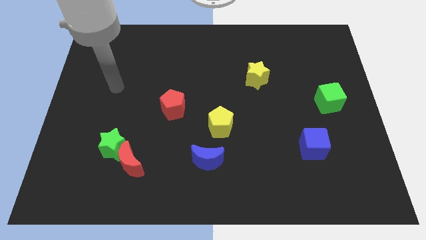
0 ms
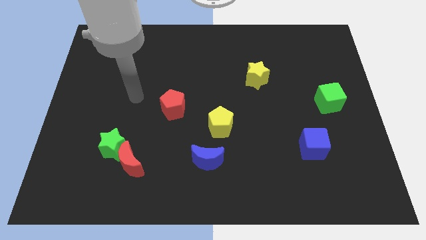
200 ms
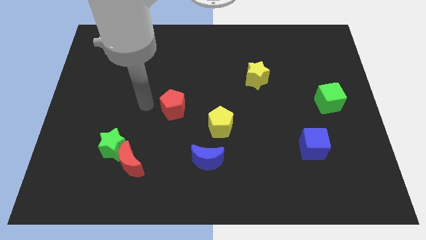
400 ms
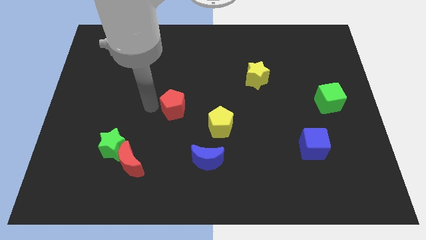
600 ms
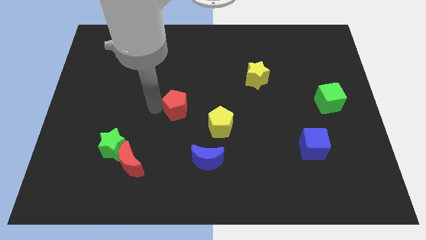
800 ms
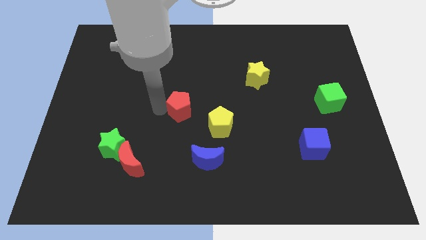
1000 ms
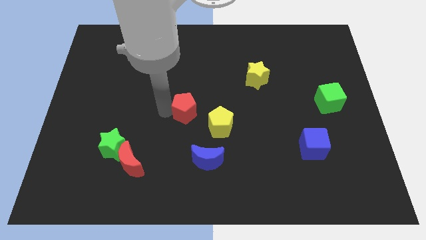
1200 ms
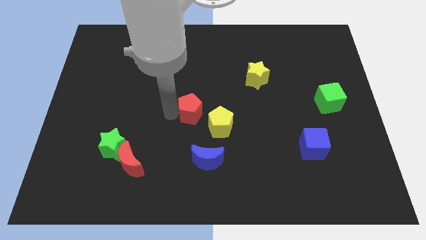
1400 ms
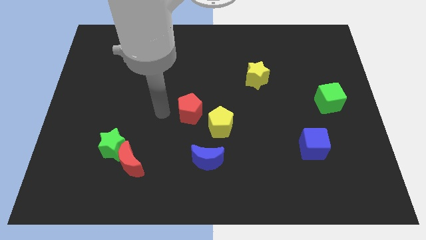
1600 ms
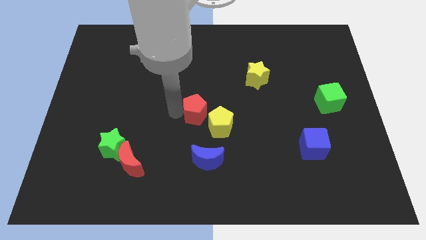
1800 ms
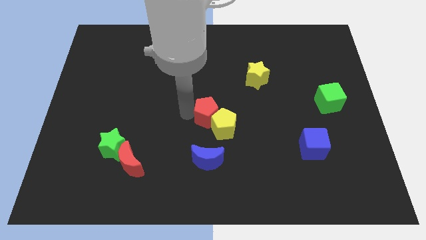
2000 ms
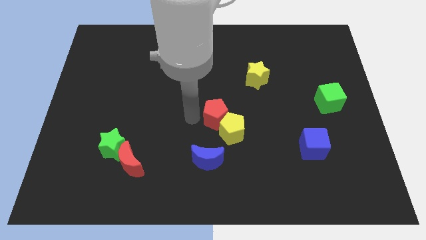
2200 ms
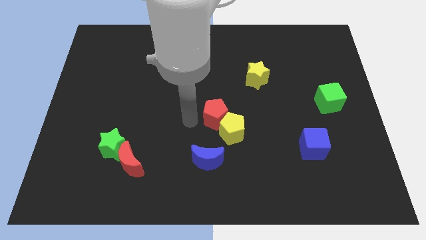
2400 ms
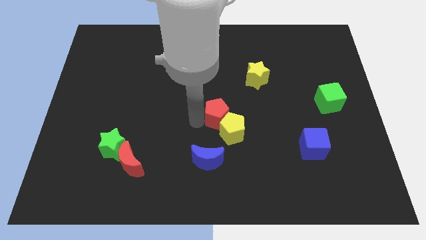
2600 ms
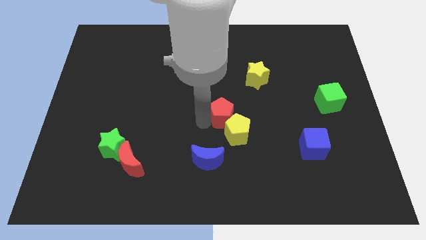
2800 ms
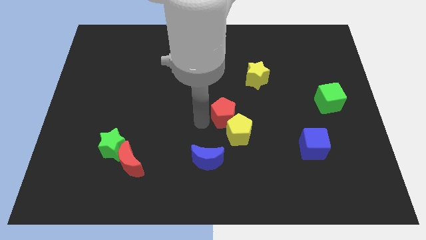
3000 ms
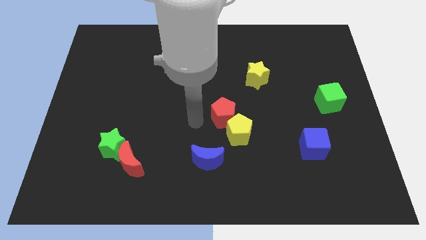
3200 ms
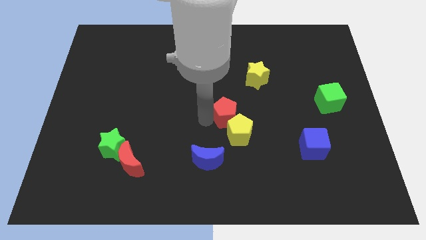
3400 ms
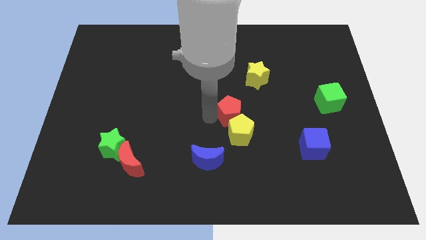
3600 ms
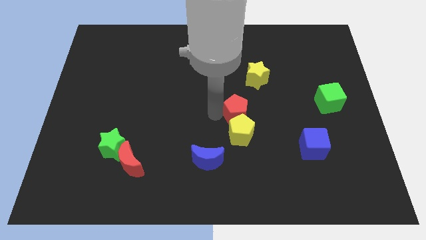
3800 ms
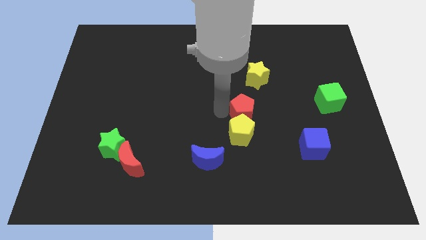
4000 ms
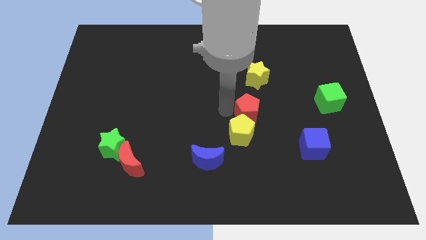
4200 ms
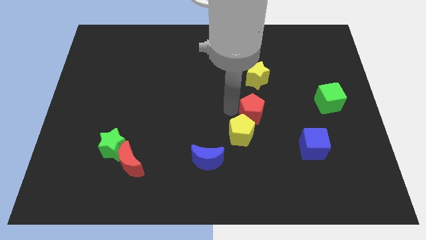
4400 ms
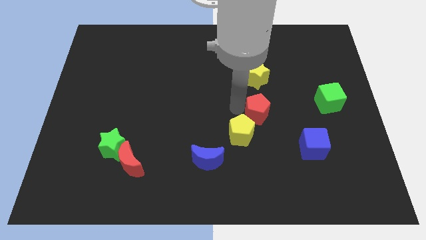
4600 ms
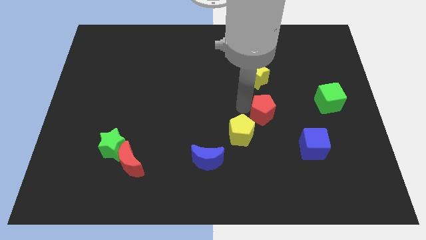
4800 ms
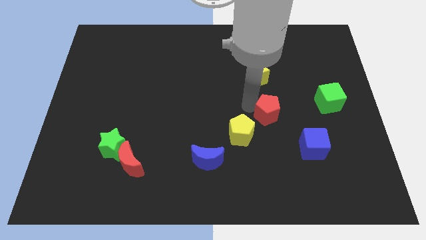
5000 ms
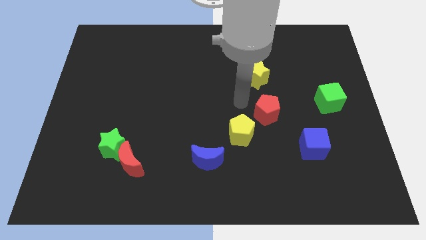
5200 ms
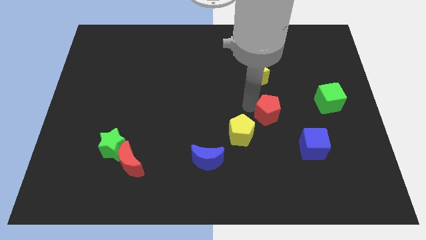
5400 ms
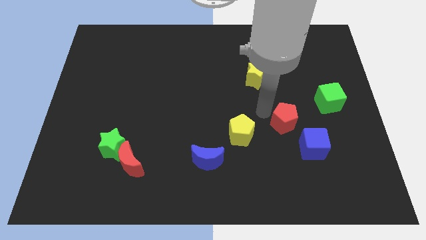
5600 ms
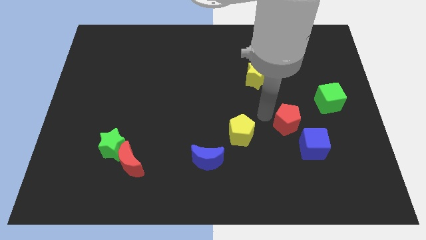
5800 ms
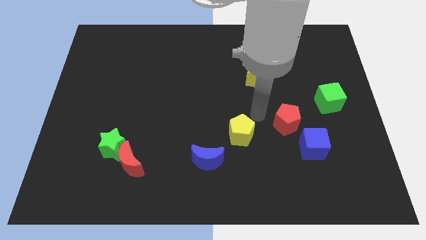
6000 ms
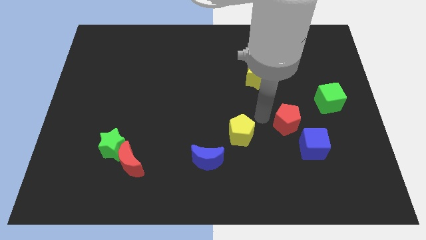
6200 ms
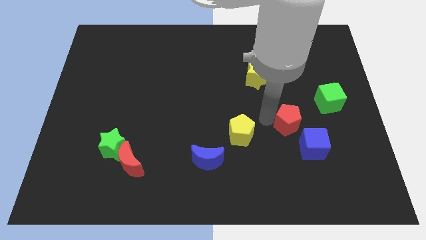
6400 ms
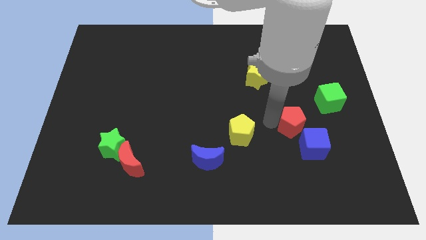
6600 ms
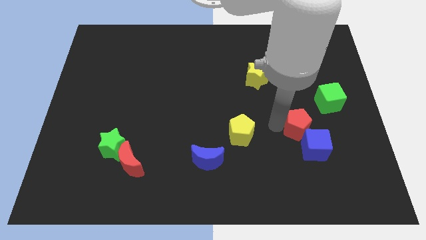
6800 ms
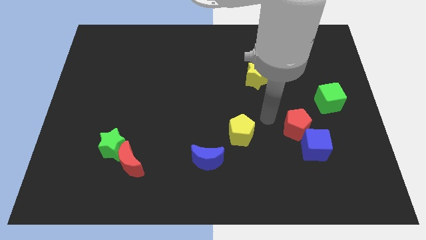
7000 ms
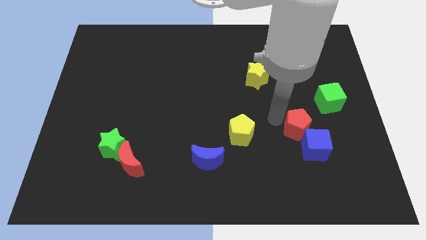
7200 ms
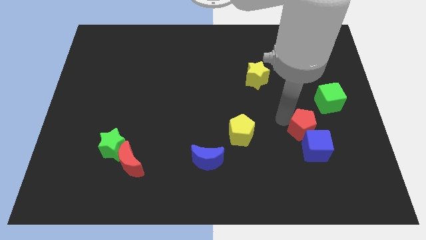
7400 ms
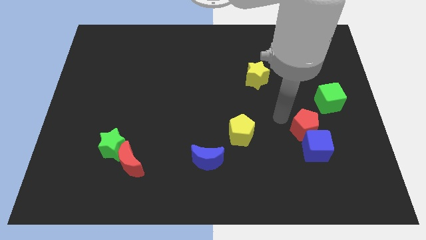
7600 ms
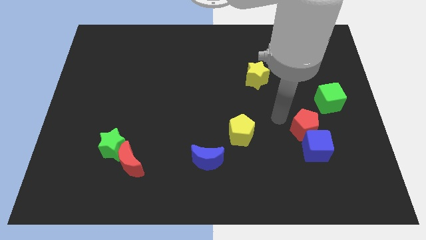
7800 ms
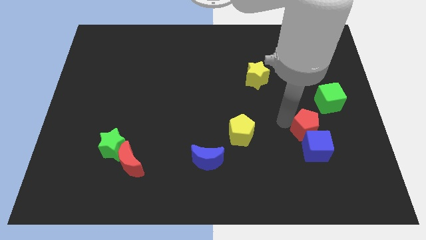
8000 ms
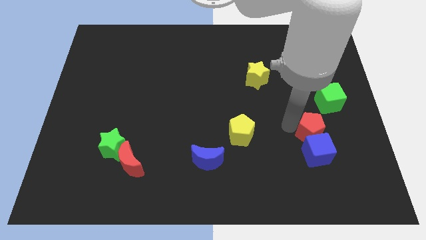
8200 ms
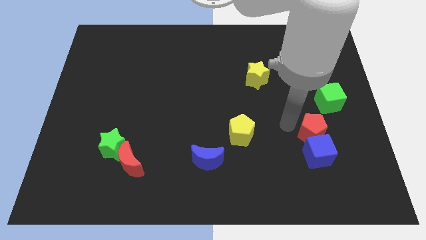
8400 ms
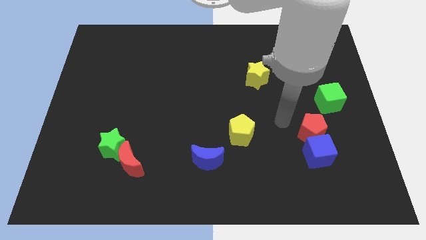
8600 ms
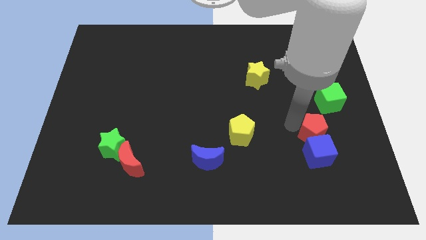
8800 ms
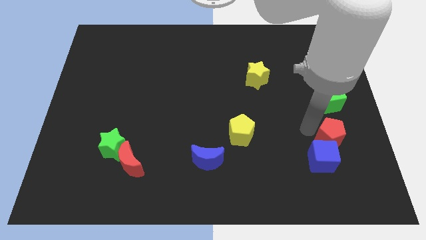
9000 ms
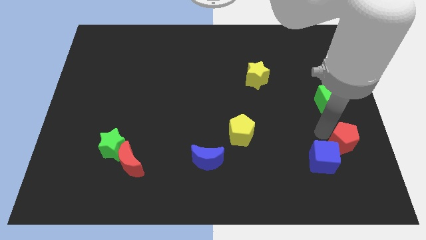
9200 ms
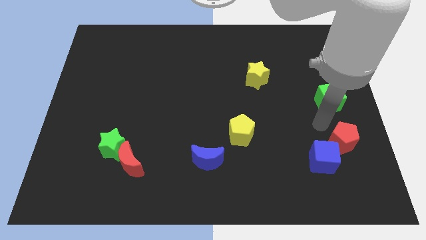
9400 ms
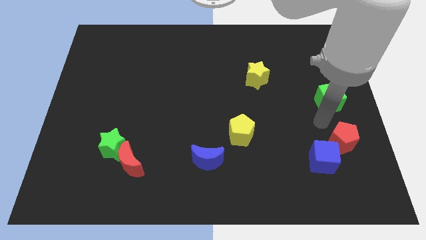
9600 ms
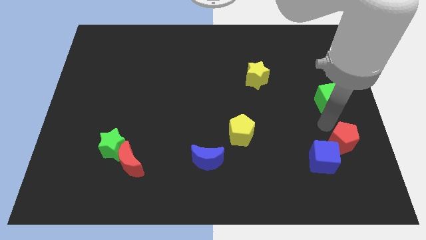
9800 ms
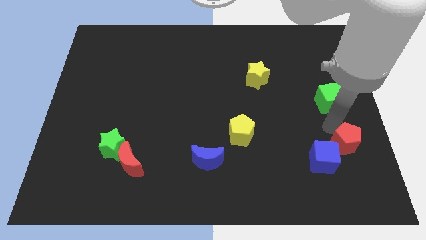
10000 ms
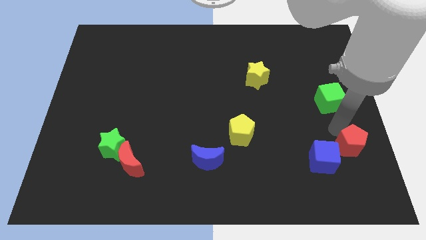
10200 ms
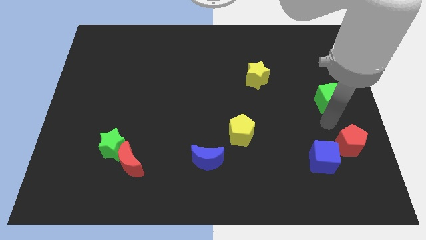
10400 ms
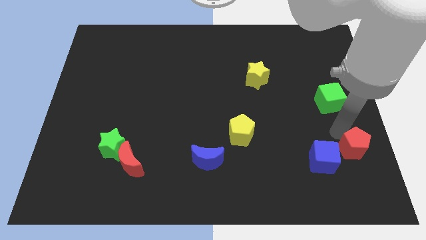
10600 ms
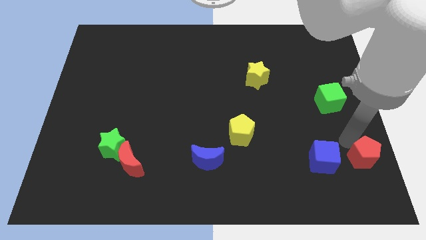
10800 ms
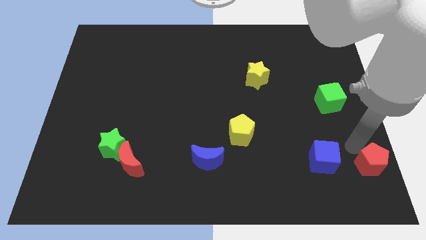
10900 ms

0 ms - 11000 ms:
slide the red pentagon to the bottom right

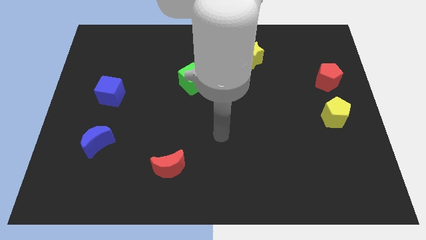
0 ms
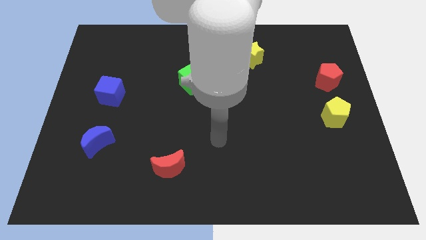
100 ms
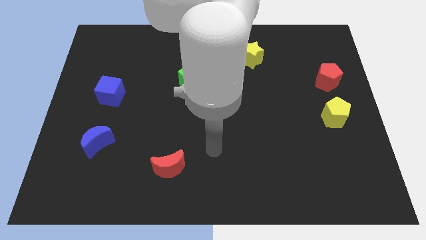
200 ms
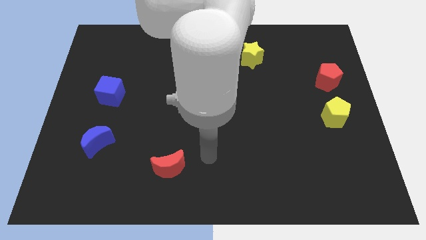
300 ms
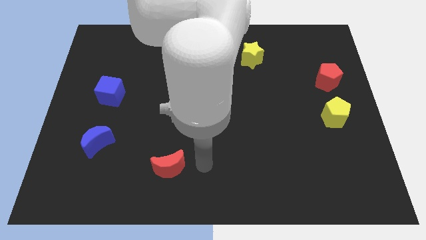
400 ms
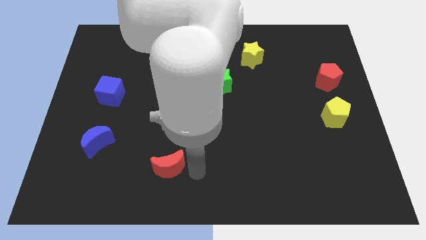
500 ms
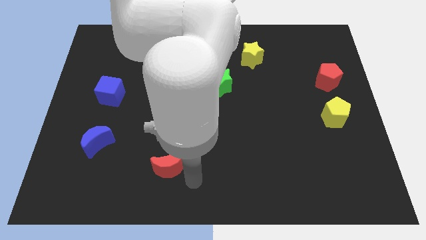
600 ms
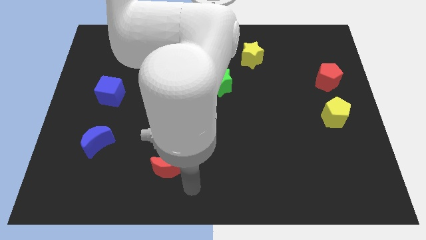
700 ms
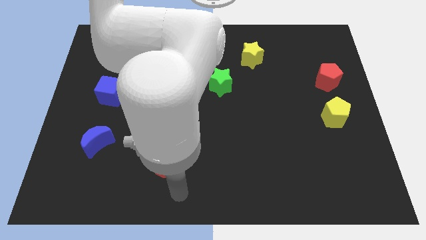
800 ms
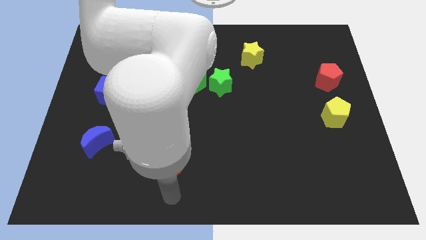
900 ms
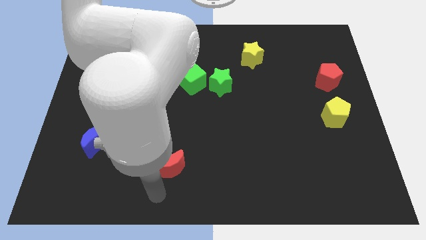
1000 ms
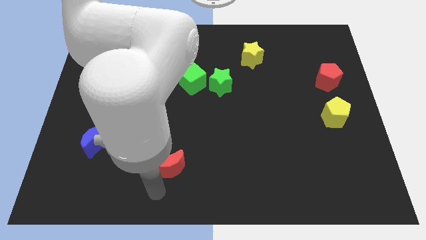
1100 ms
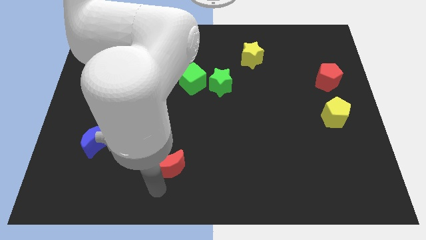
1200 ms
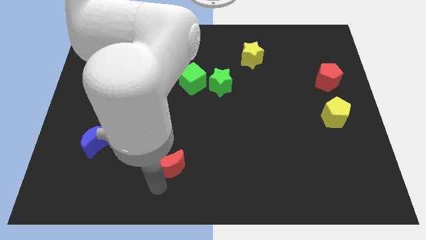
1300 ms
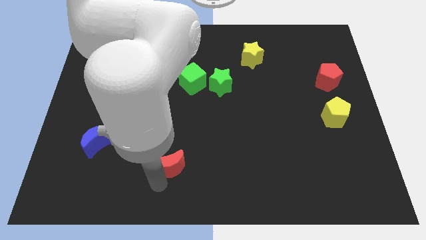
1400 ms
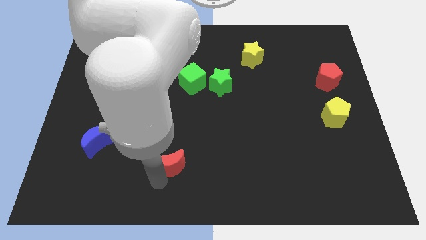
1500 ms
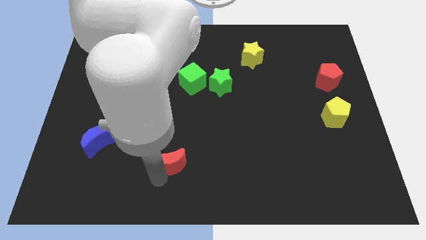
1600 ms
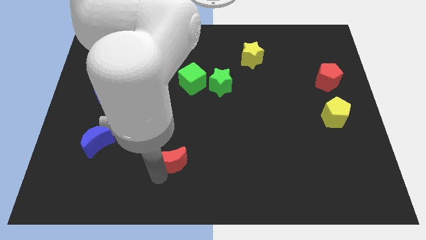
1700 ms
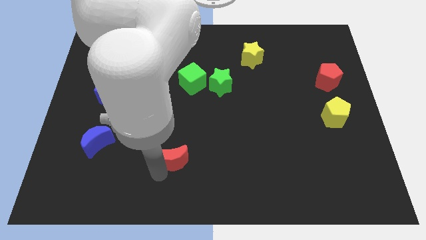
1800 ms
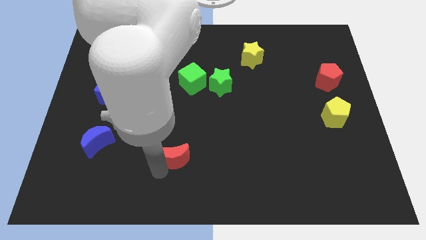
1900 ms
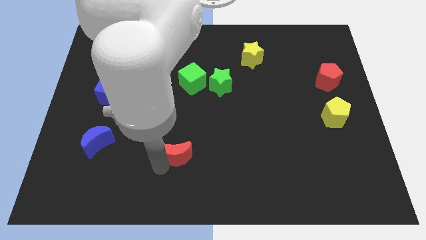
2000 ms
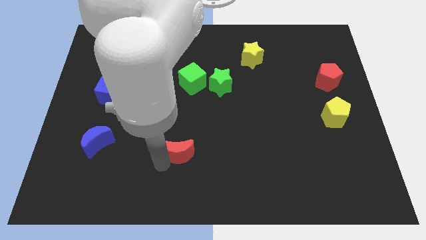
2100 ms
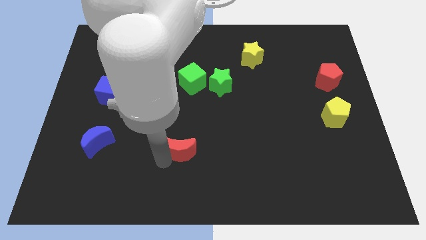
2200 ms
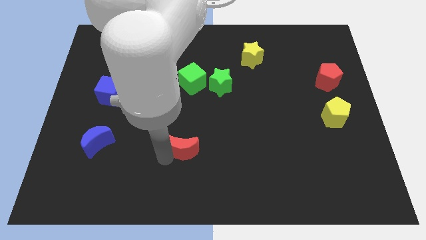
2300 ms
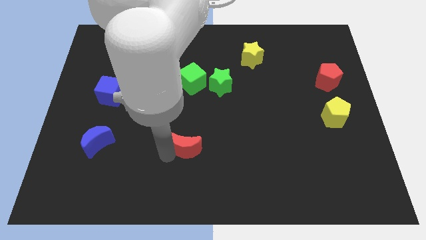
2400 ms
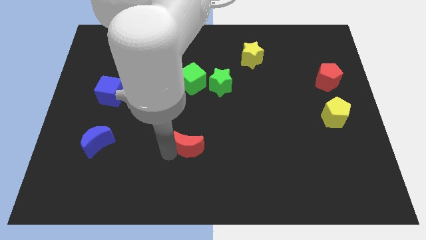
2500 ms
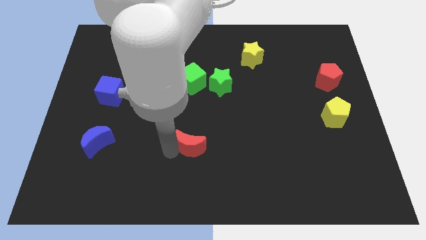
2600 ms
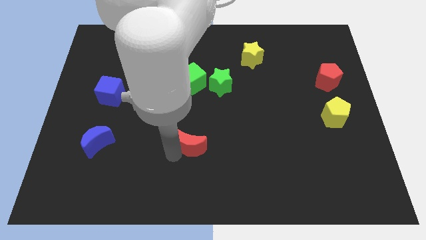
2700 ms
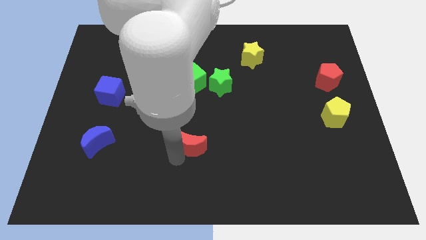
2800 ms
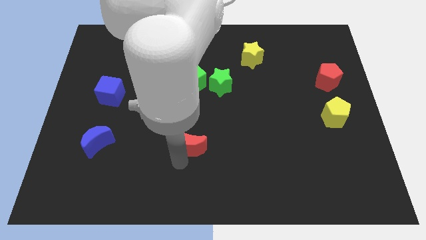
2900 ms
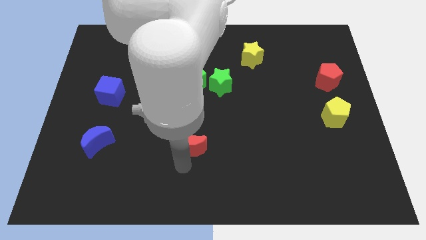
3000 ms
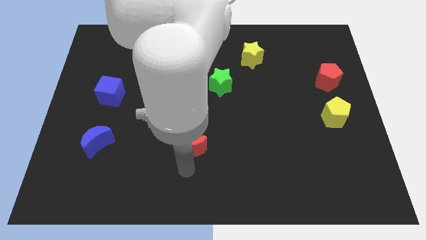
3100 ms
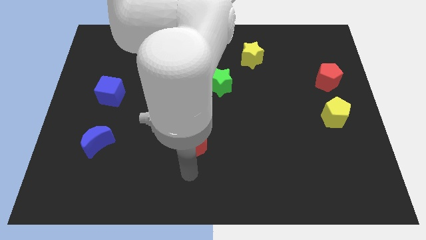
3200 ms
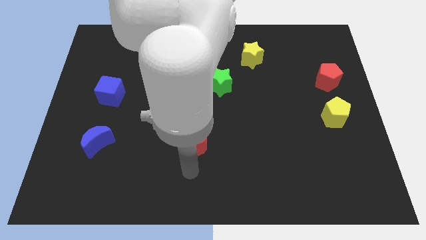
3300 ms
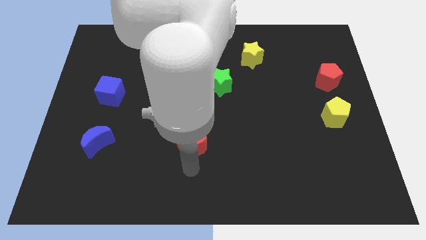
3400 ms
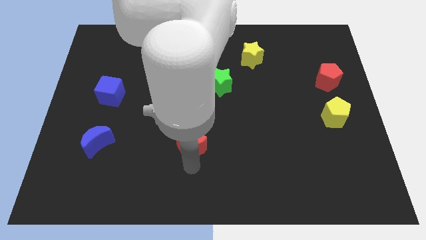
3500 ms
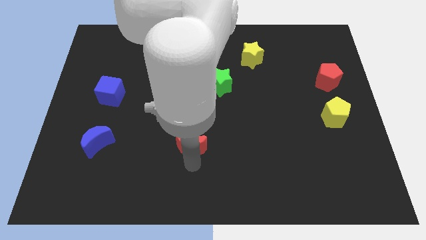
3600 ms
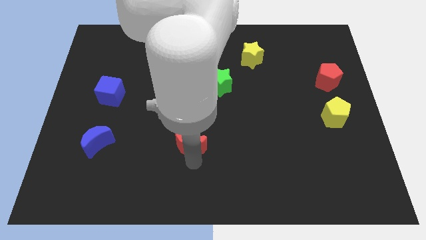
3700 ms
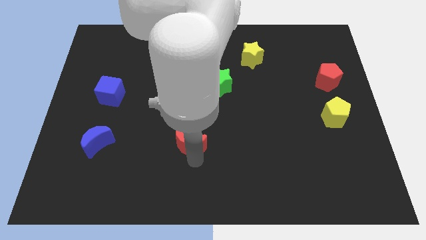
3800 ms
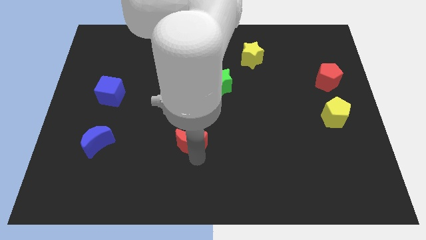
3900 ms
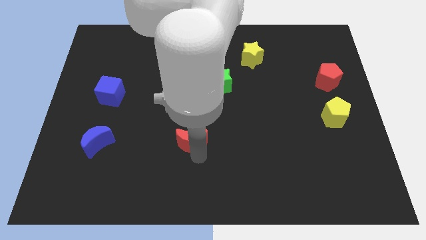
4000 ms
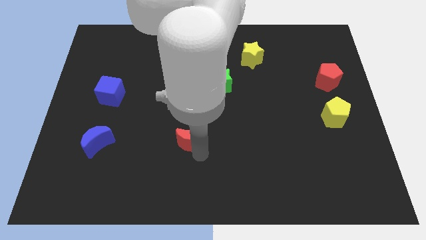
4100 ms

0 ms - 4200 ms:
move the red moon to the center of the board
